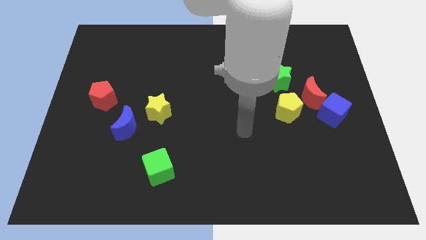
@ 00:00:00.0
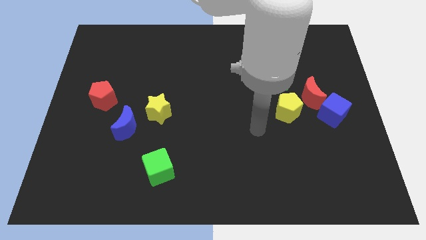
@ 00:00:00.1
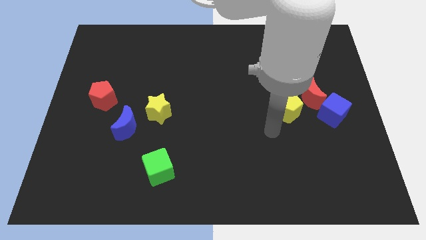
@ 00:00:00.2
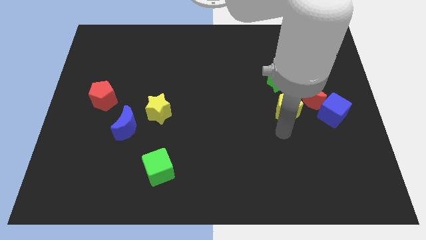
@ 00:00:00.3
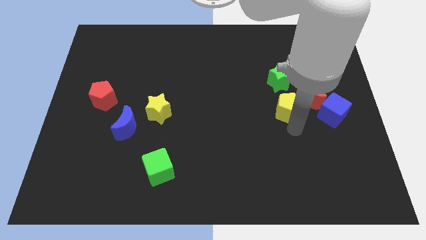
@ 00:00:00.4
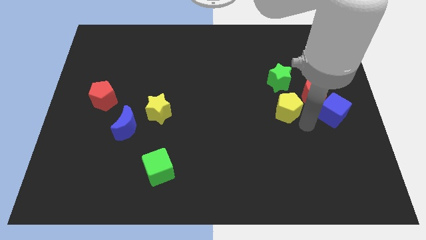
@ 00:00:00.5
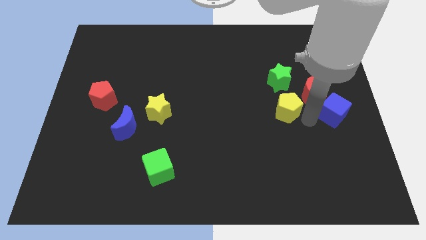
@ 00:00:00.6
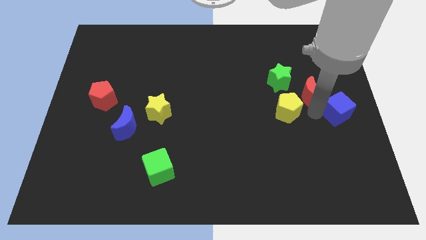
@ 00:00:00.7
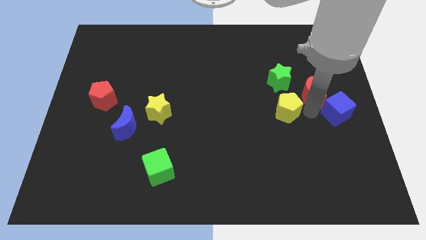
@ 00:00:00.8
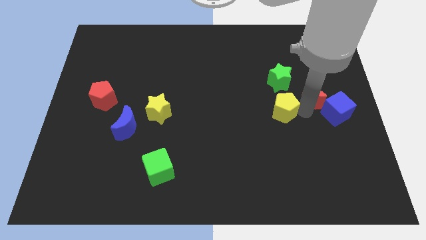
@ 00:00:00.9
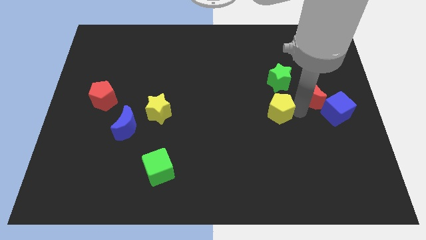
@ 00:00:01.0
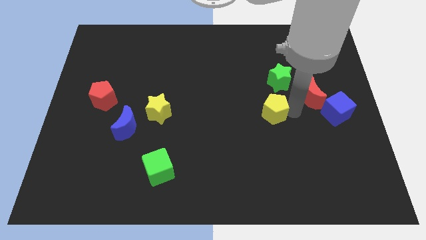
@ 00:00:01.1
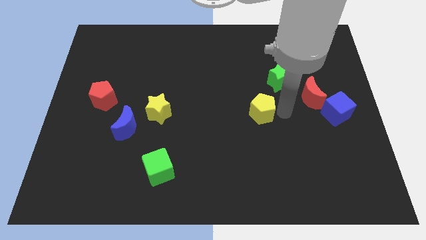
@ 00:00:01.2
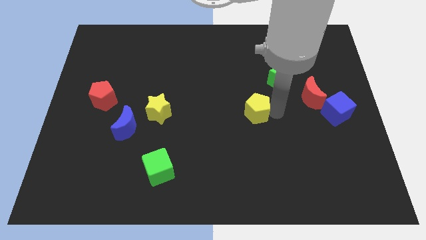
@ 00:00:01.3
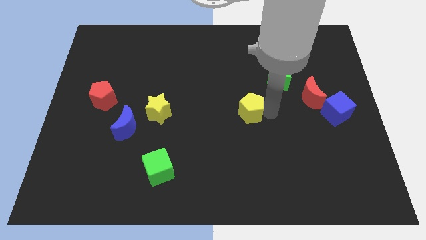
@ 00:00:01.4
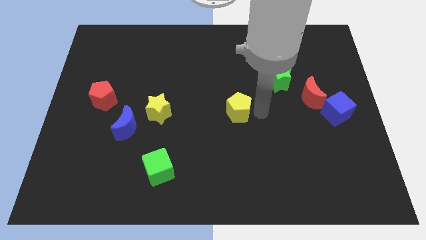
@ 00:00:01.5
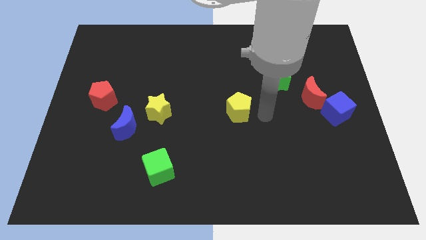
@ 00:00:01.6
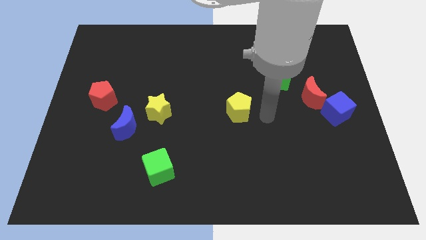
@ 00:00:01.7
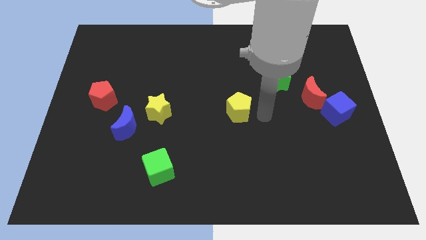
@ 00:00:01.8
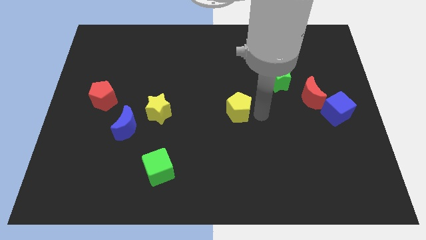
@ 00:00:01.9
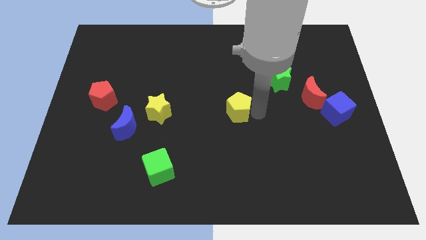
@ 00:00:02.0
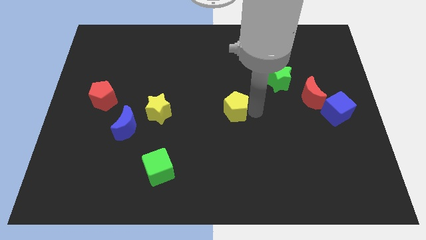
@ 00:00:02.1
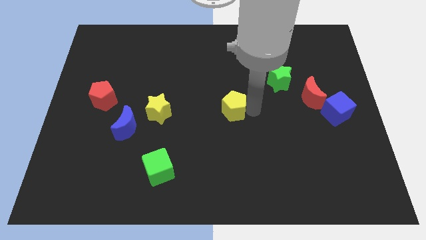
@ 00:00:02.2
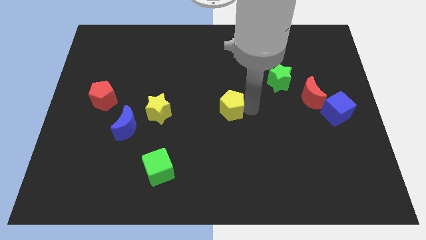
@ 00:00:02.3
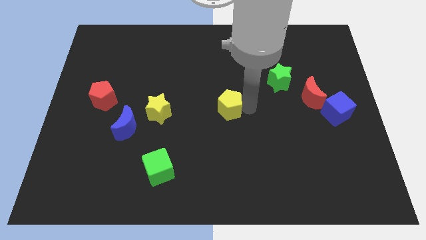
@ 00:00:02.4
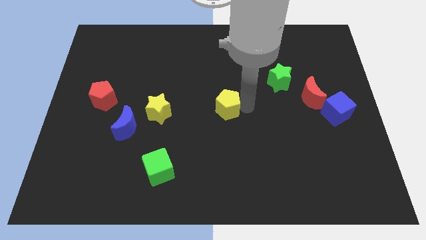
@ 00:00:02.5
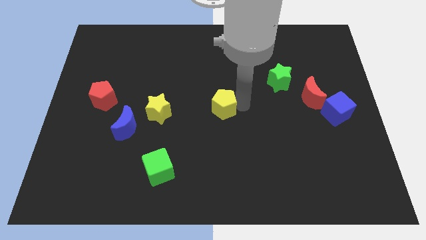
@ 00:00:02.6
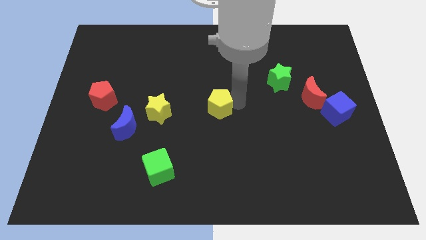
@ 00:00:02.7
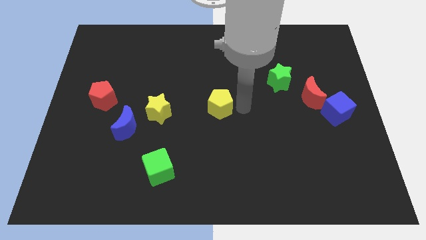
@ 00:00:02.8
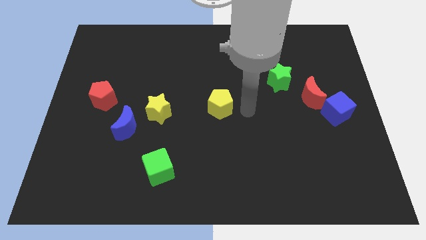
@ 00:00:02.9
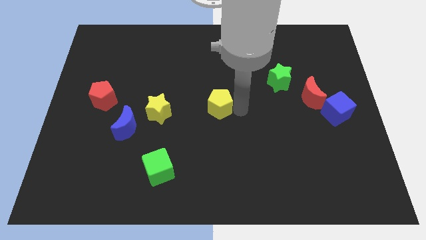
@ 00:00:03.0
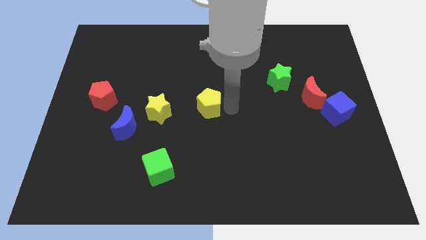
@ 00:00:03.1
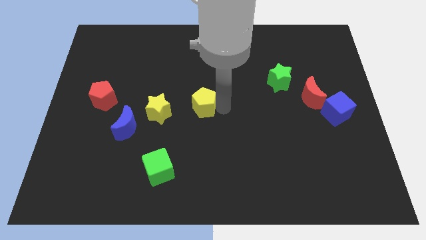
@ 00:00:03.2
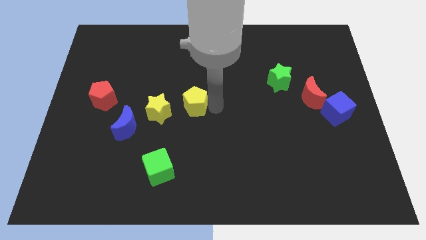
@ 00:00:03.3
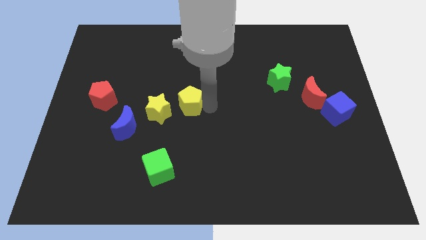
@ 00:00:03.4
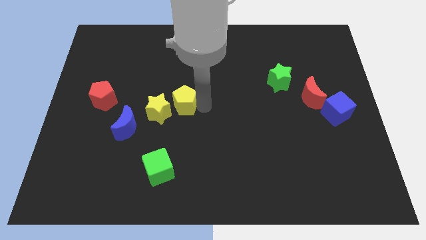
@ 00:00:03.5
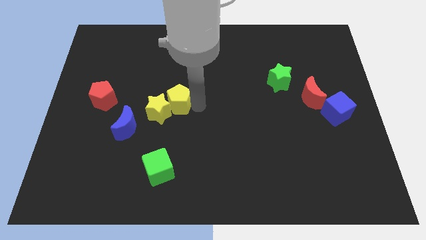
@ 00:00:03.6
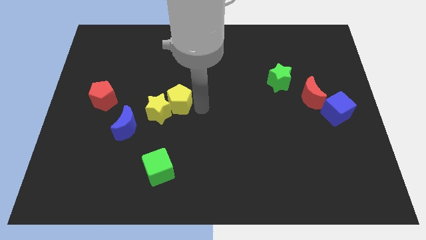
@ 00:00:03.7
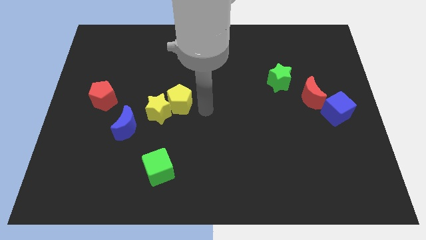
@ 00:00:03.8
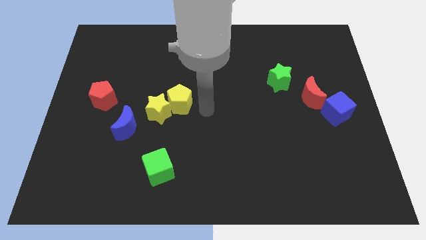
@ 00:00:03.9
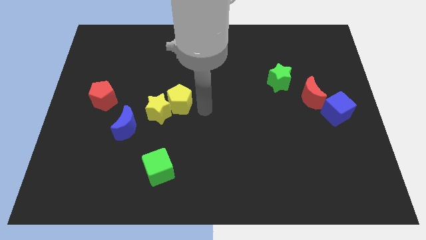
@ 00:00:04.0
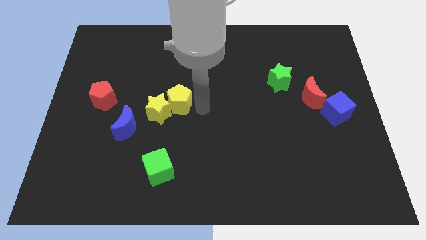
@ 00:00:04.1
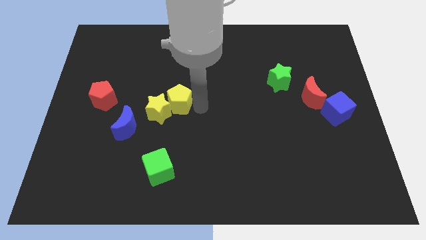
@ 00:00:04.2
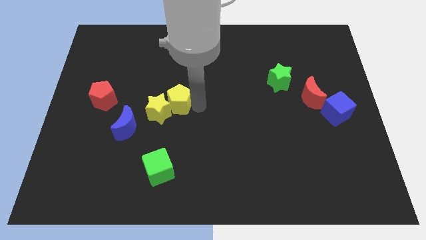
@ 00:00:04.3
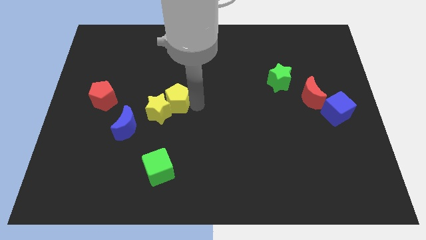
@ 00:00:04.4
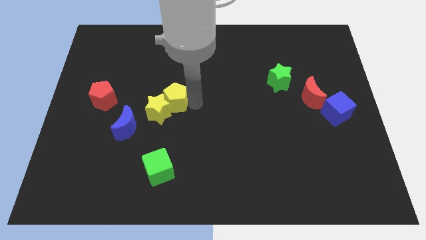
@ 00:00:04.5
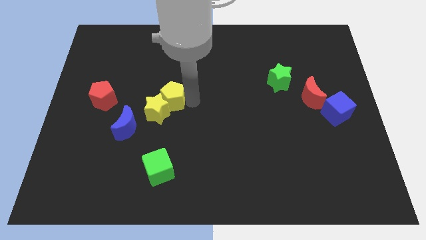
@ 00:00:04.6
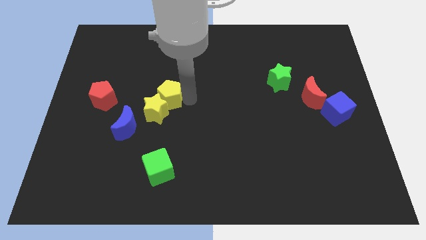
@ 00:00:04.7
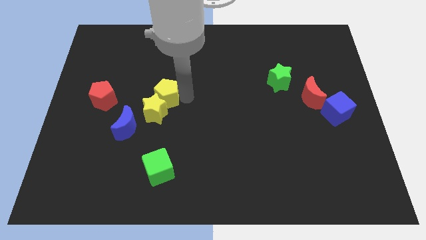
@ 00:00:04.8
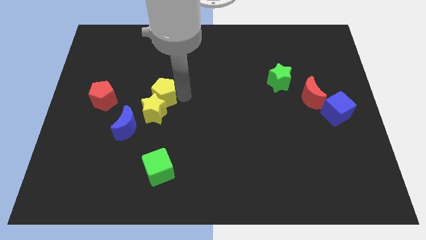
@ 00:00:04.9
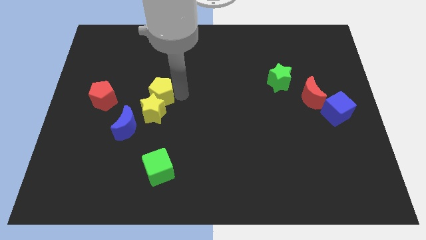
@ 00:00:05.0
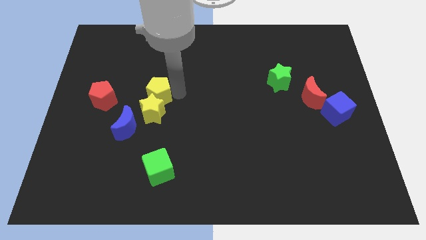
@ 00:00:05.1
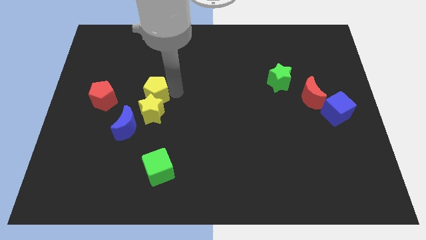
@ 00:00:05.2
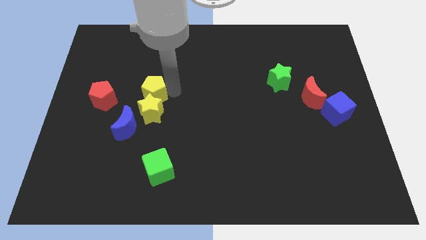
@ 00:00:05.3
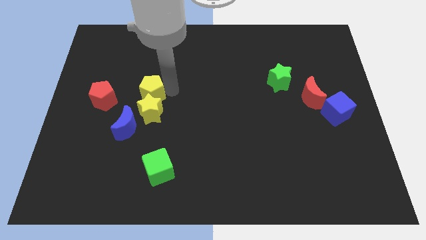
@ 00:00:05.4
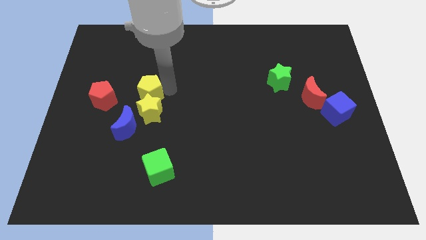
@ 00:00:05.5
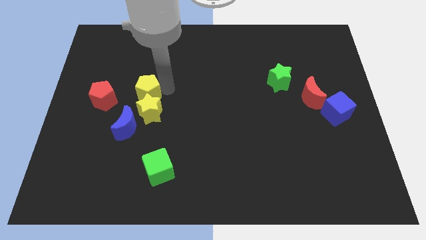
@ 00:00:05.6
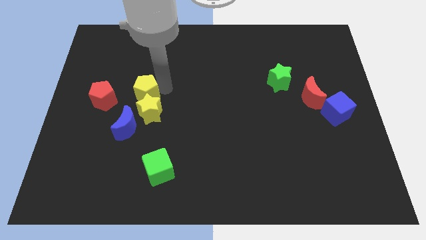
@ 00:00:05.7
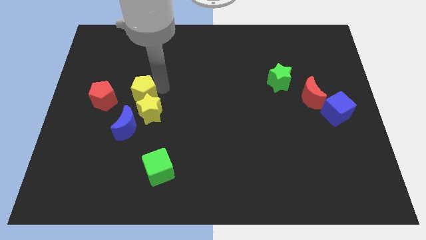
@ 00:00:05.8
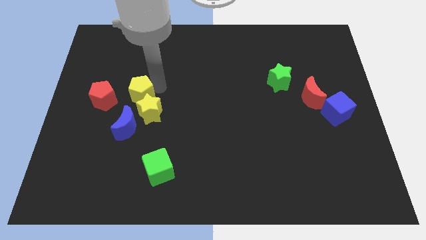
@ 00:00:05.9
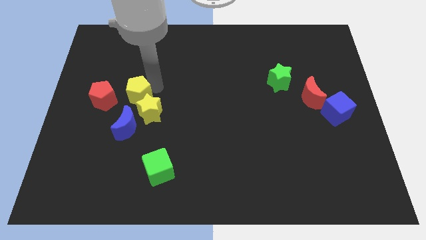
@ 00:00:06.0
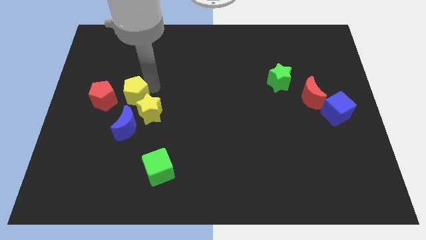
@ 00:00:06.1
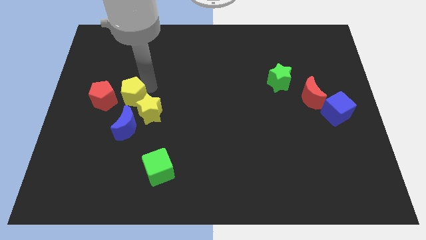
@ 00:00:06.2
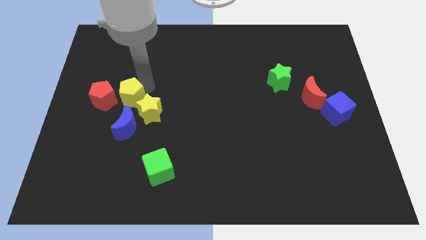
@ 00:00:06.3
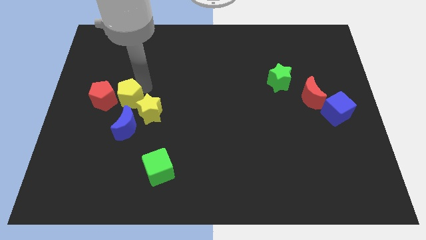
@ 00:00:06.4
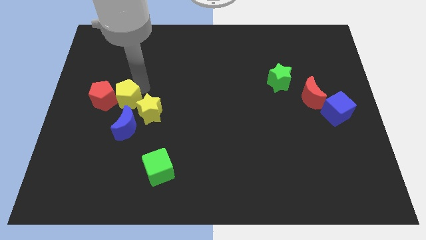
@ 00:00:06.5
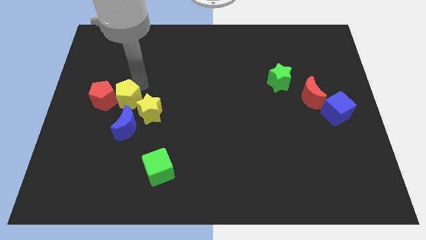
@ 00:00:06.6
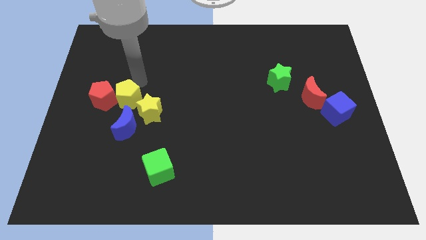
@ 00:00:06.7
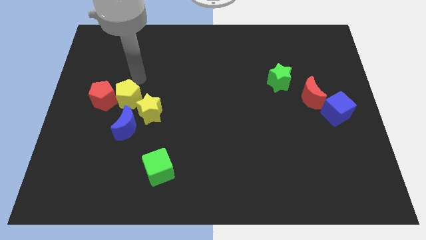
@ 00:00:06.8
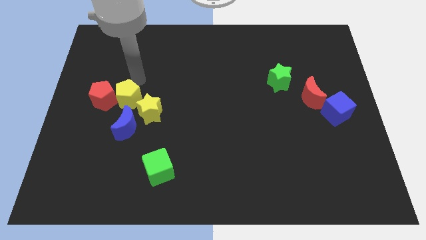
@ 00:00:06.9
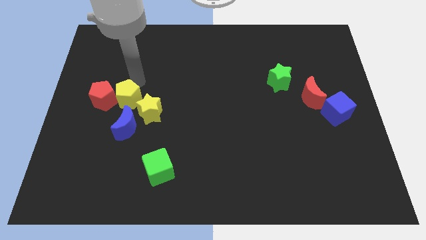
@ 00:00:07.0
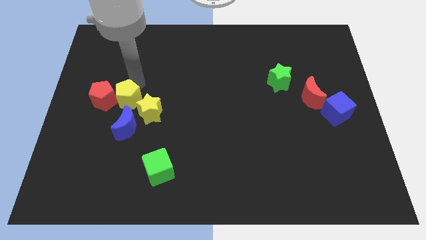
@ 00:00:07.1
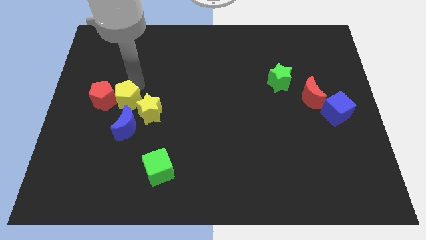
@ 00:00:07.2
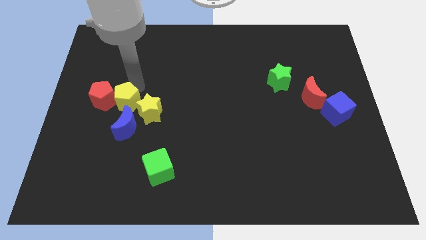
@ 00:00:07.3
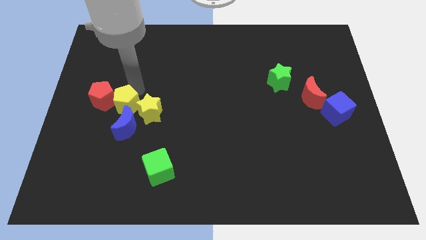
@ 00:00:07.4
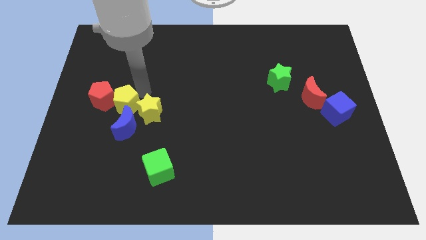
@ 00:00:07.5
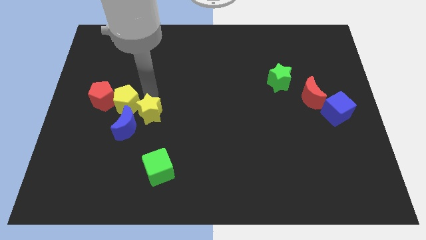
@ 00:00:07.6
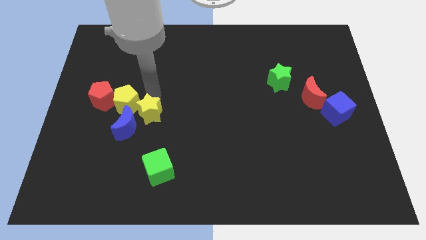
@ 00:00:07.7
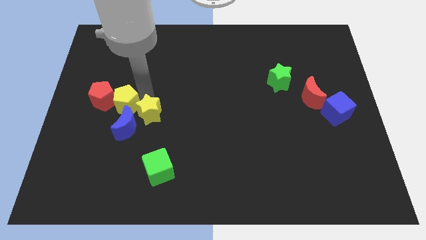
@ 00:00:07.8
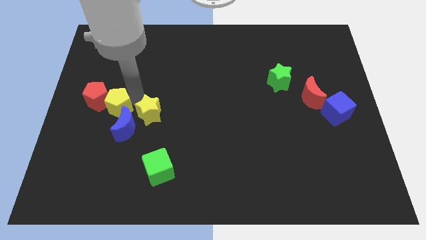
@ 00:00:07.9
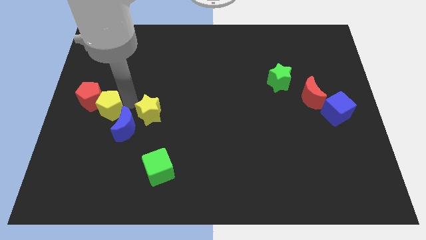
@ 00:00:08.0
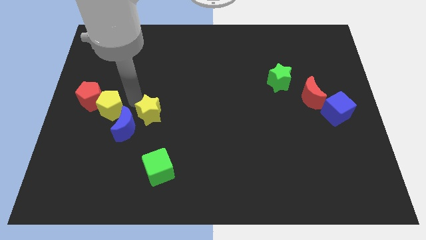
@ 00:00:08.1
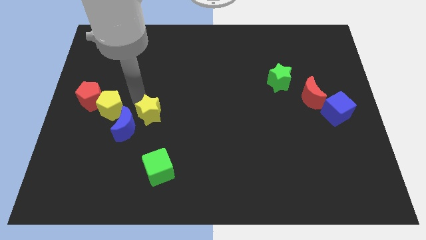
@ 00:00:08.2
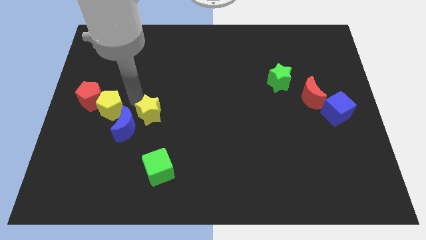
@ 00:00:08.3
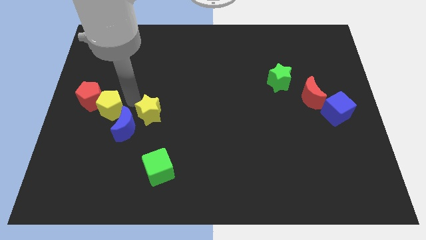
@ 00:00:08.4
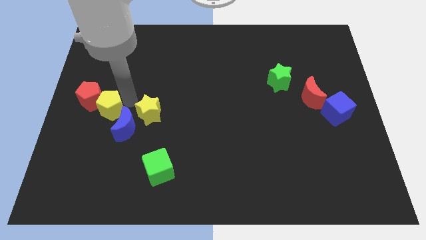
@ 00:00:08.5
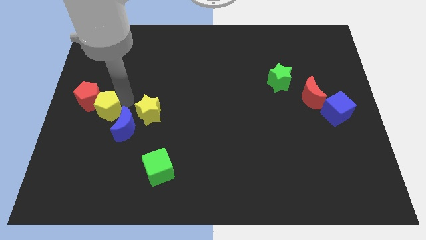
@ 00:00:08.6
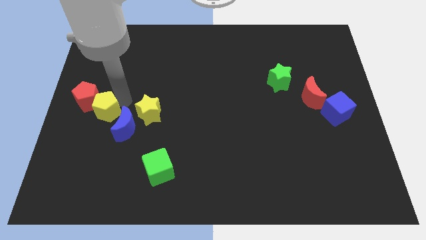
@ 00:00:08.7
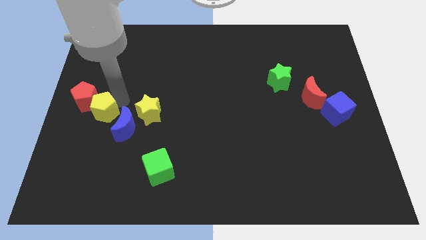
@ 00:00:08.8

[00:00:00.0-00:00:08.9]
slide the yellow pentagon to the center left
